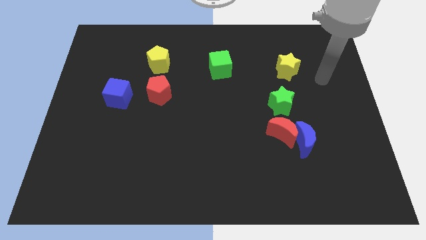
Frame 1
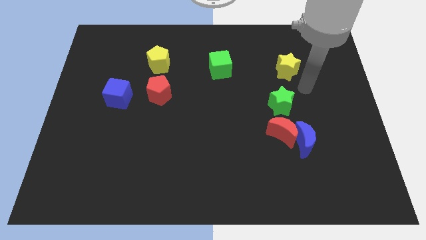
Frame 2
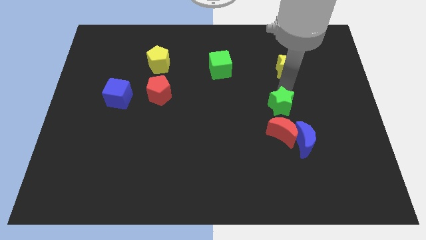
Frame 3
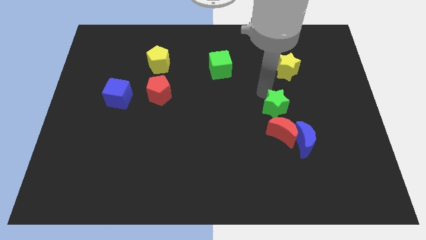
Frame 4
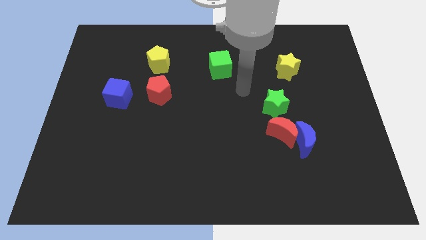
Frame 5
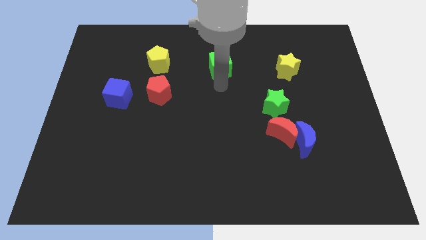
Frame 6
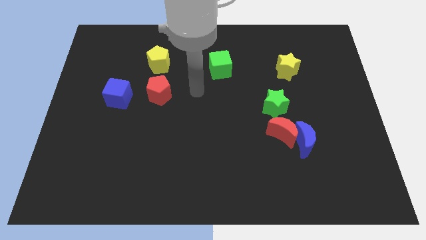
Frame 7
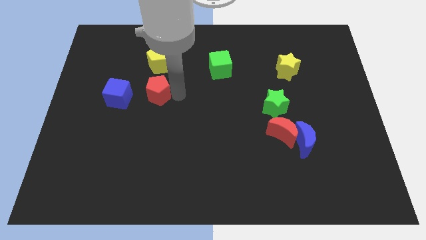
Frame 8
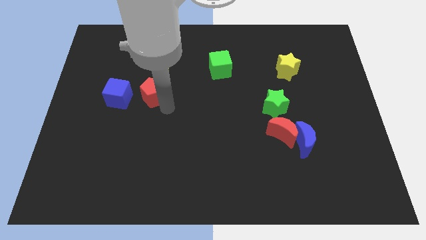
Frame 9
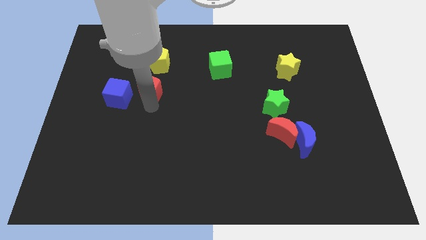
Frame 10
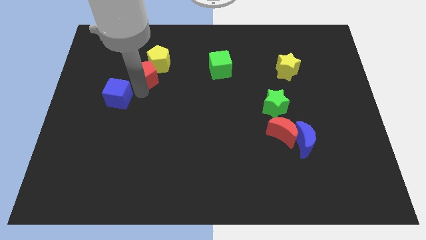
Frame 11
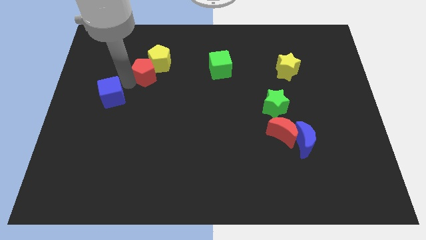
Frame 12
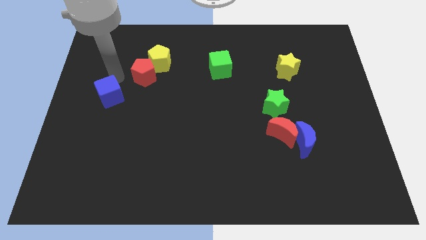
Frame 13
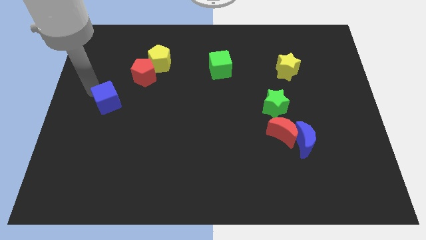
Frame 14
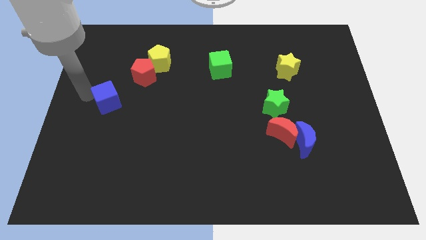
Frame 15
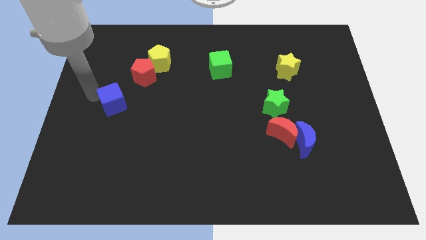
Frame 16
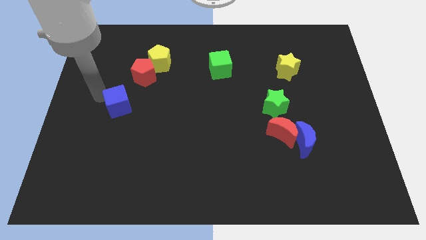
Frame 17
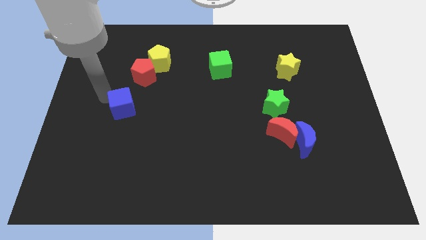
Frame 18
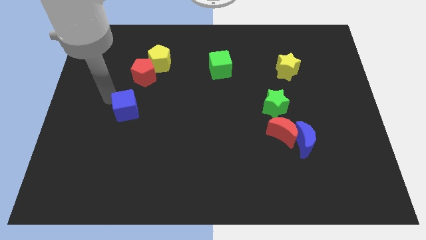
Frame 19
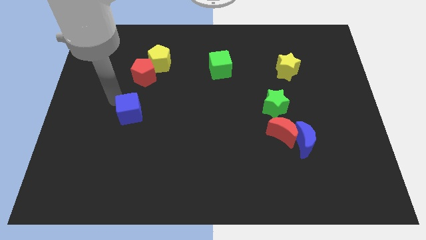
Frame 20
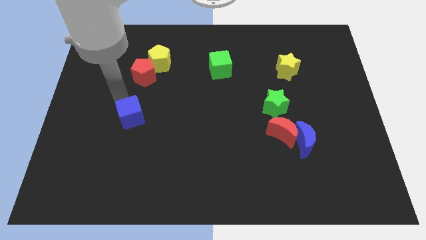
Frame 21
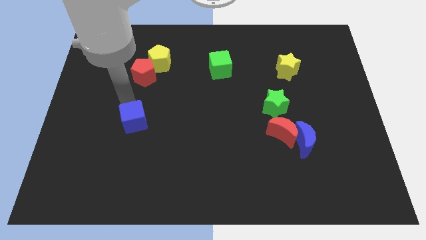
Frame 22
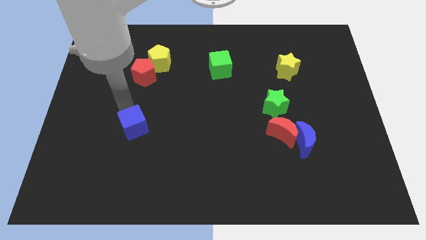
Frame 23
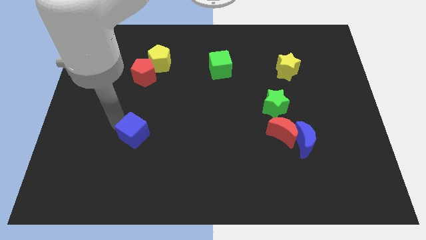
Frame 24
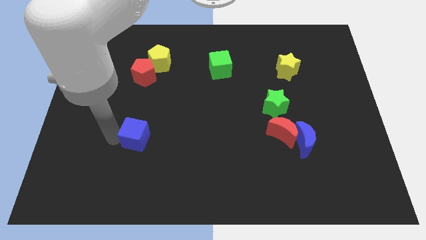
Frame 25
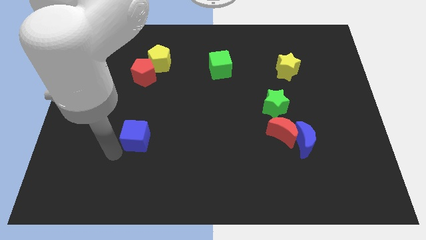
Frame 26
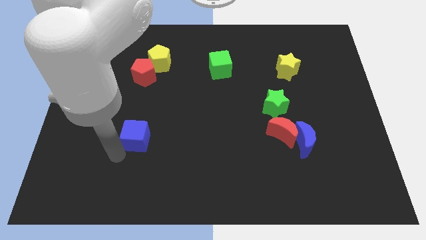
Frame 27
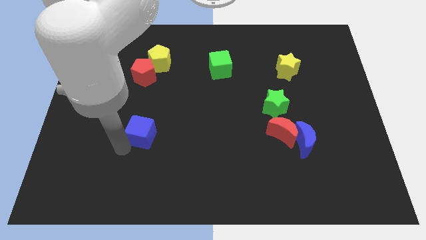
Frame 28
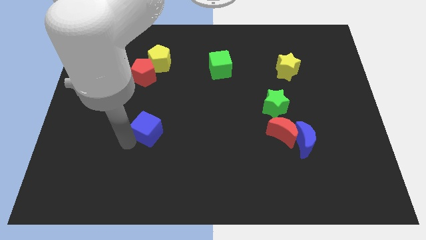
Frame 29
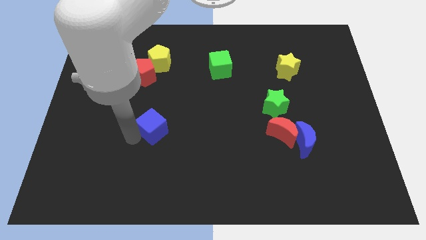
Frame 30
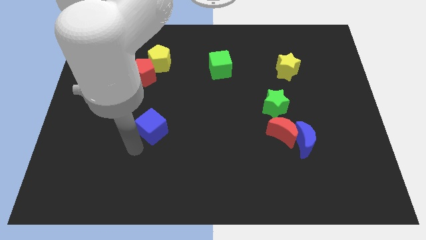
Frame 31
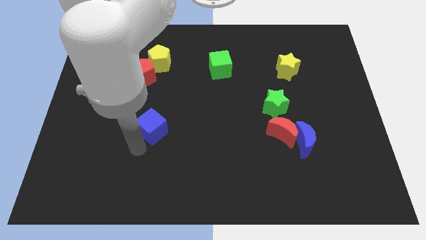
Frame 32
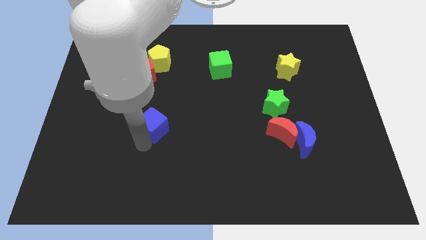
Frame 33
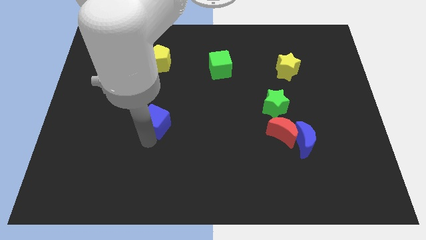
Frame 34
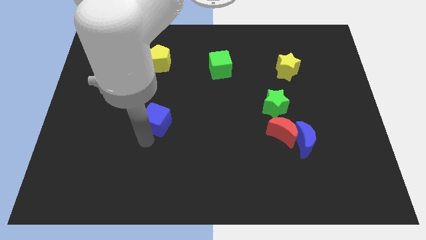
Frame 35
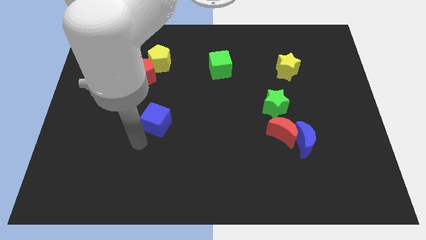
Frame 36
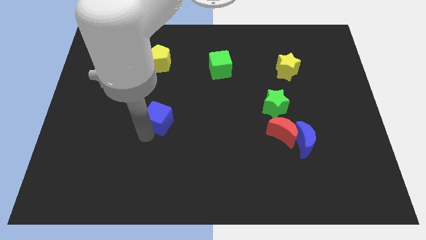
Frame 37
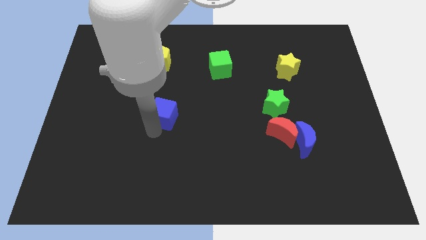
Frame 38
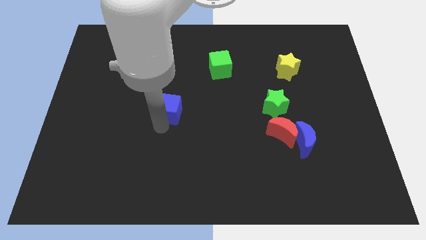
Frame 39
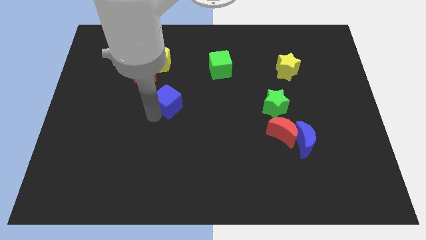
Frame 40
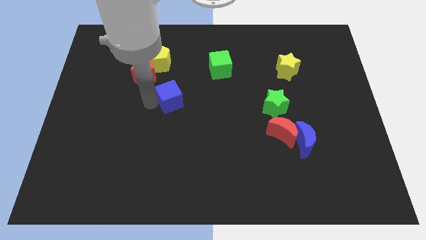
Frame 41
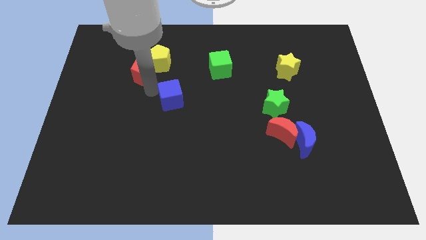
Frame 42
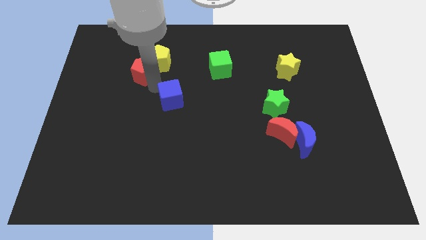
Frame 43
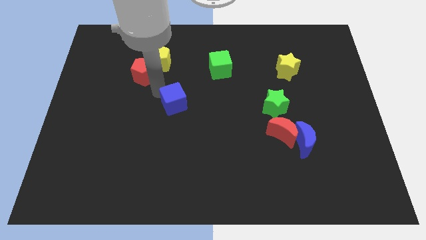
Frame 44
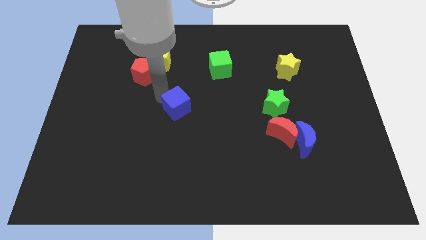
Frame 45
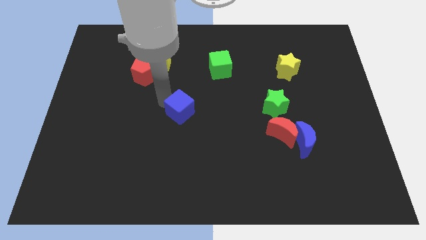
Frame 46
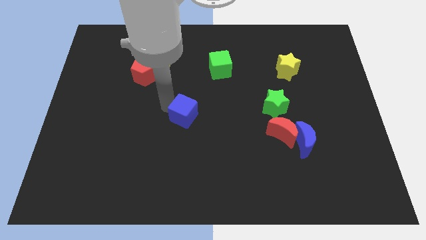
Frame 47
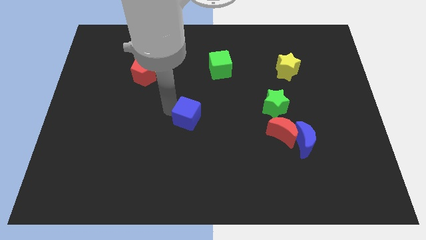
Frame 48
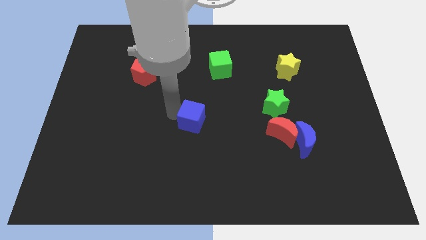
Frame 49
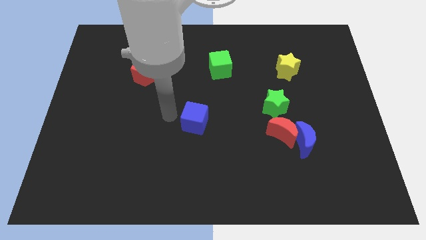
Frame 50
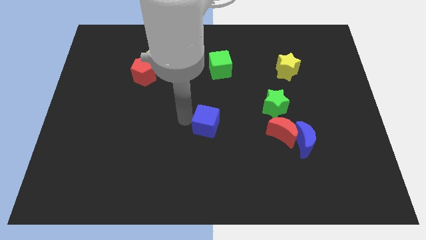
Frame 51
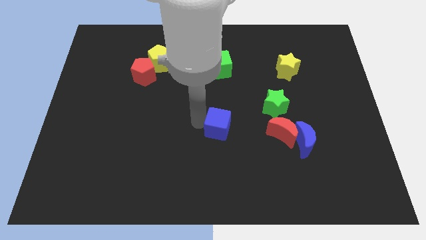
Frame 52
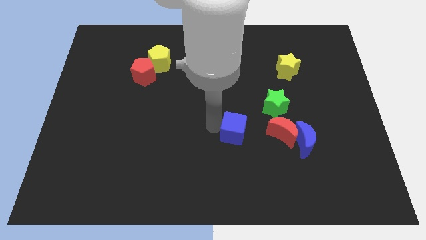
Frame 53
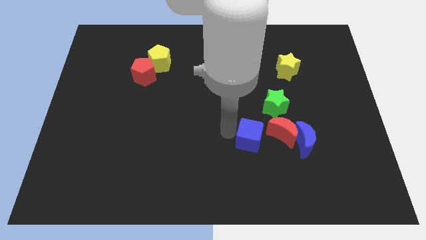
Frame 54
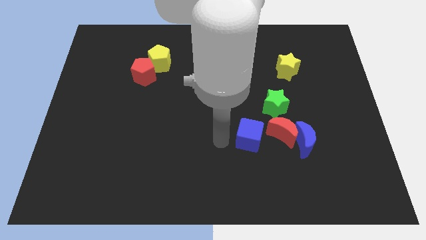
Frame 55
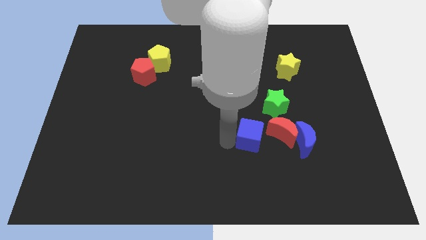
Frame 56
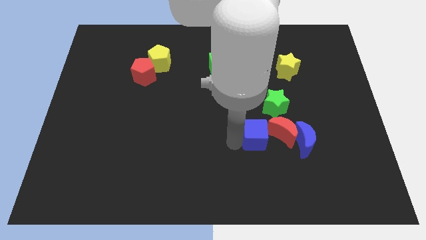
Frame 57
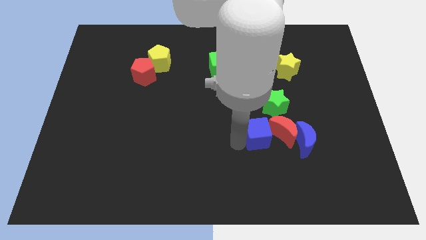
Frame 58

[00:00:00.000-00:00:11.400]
put the blue cube towards the red moon

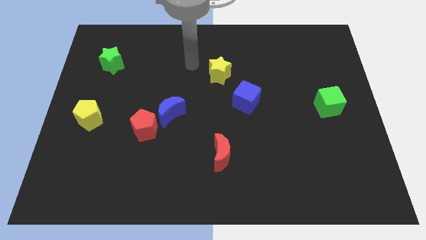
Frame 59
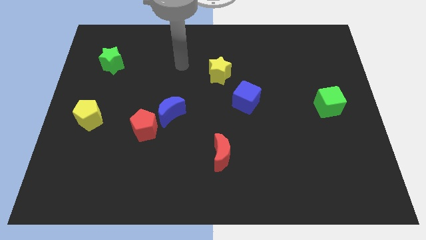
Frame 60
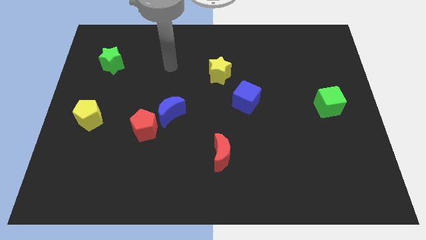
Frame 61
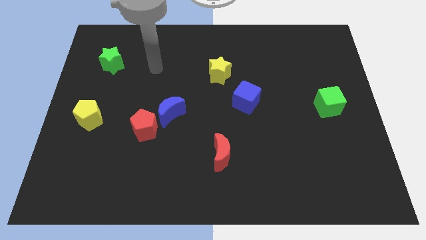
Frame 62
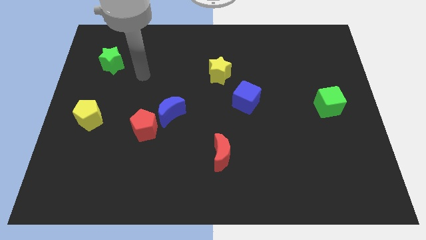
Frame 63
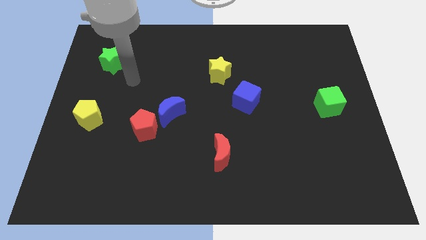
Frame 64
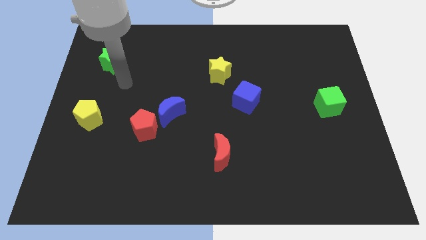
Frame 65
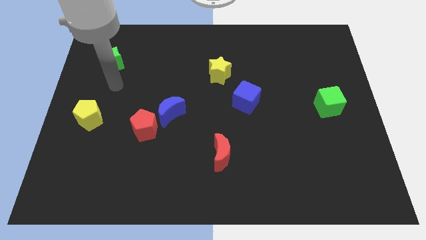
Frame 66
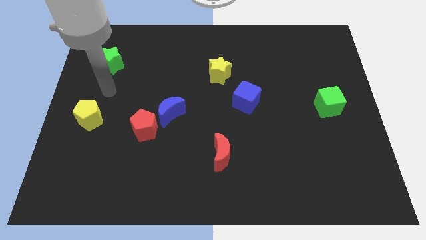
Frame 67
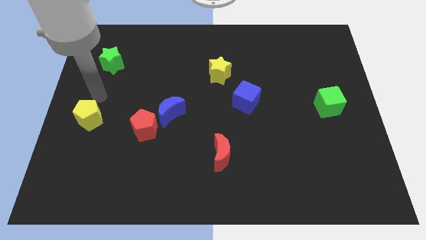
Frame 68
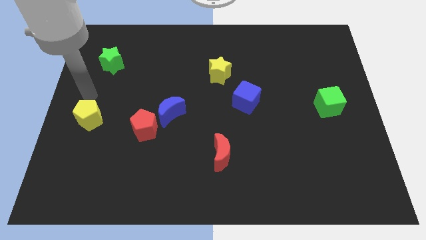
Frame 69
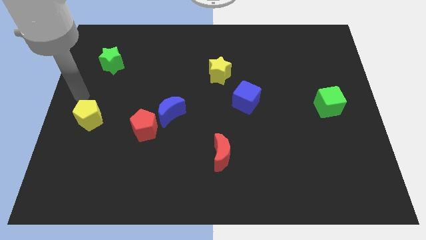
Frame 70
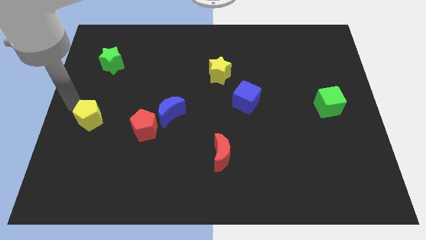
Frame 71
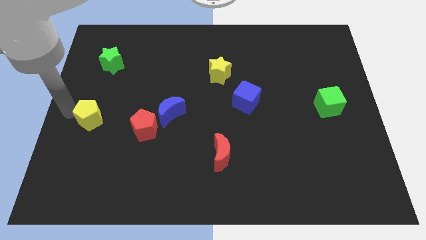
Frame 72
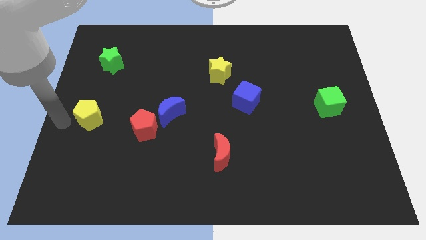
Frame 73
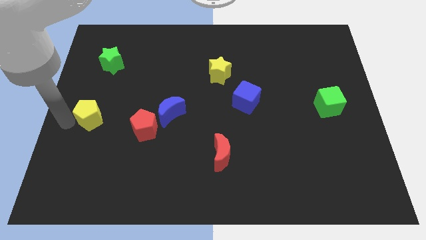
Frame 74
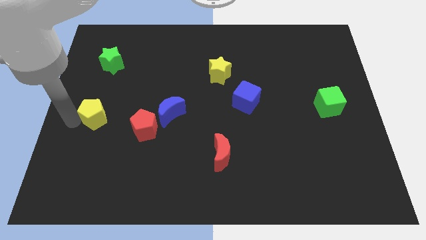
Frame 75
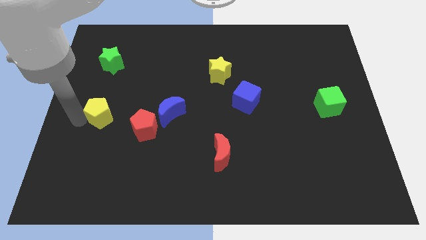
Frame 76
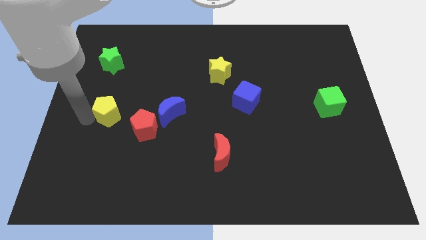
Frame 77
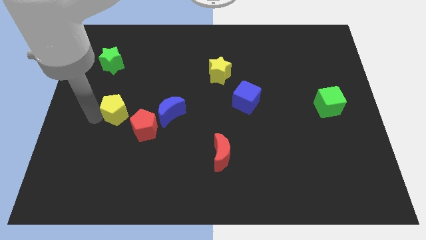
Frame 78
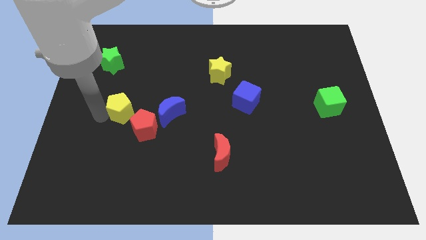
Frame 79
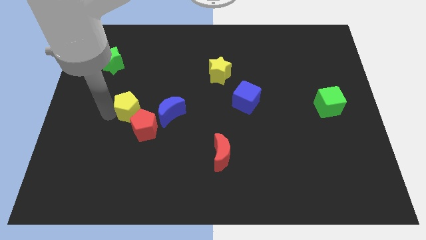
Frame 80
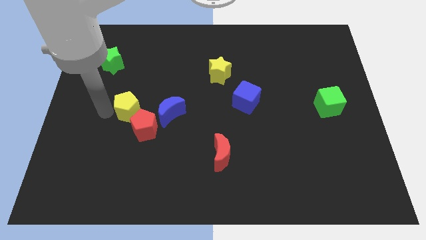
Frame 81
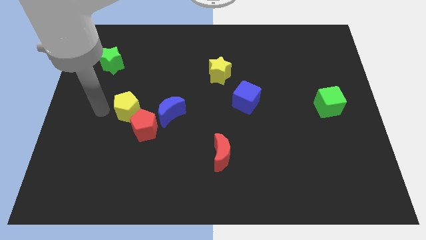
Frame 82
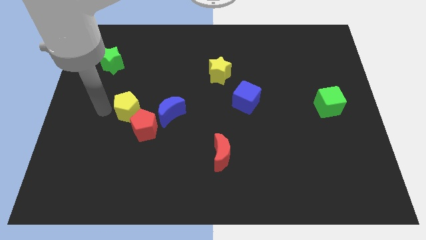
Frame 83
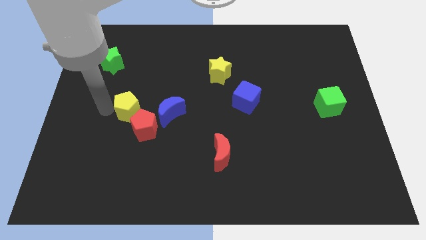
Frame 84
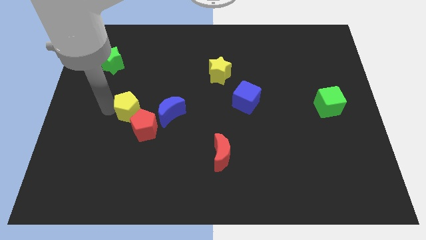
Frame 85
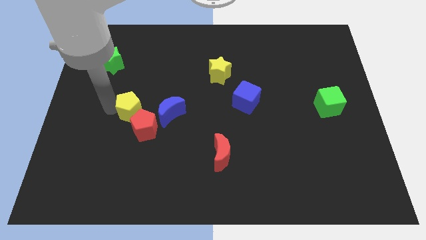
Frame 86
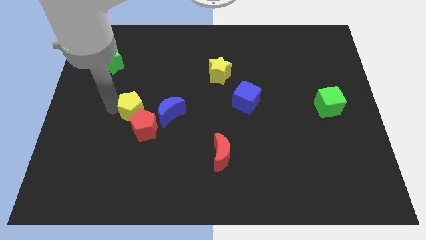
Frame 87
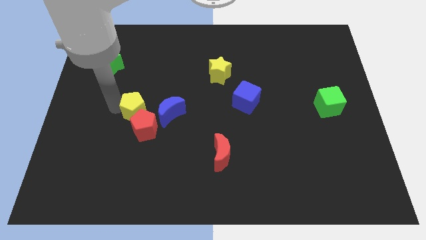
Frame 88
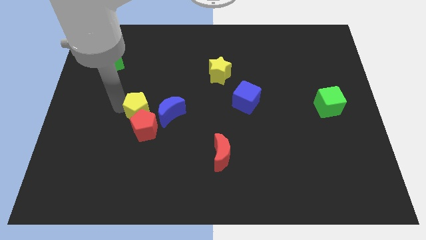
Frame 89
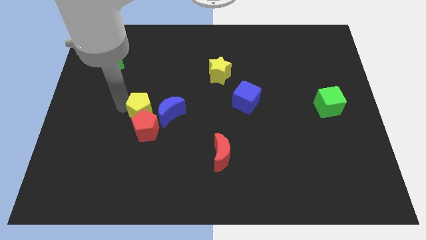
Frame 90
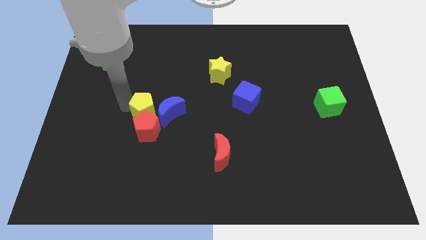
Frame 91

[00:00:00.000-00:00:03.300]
slide the yellow pentagon next to the blue moon
